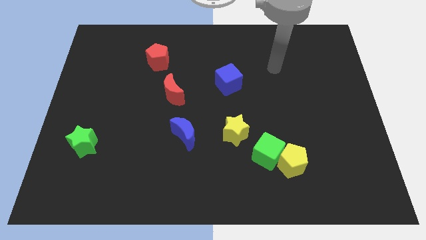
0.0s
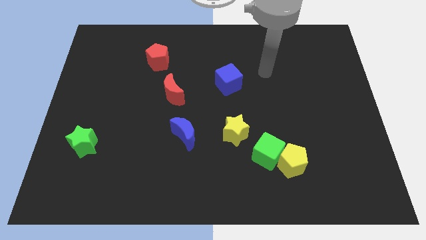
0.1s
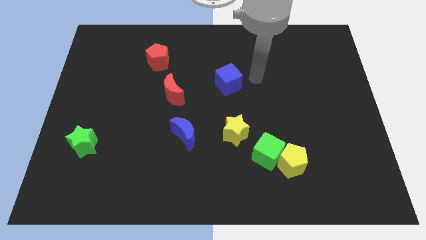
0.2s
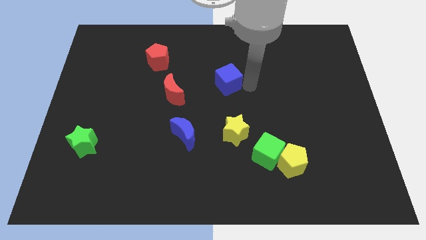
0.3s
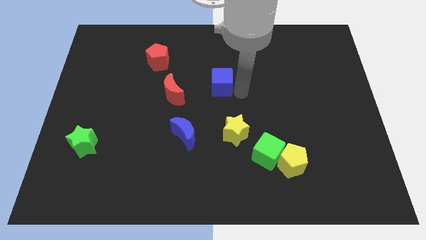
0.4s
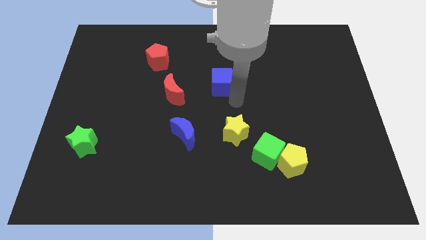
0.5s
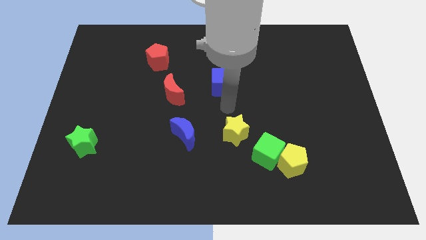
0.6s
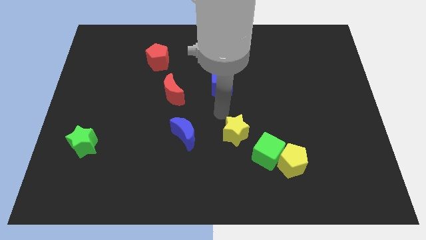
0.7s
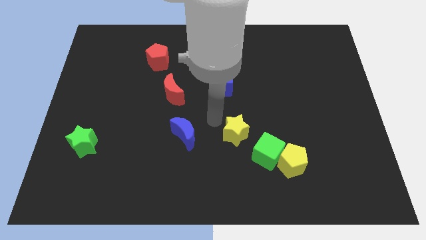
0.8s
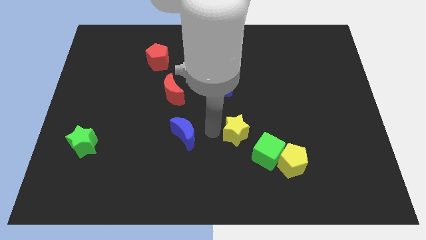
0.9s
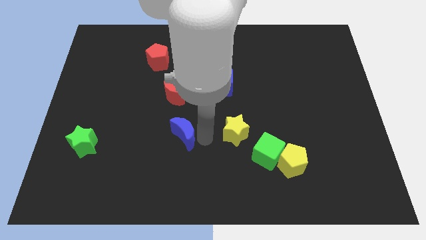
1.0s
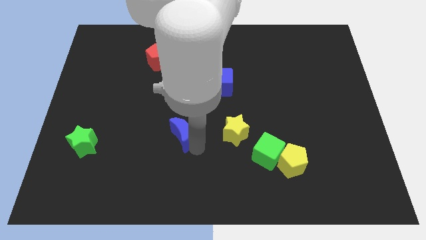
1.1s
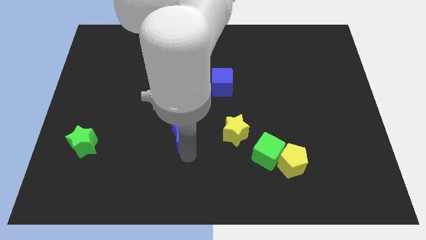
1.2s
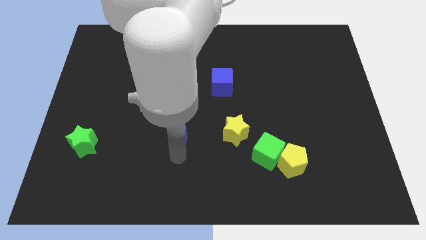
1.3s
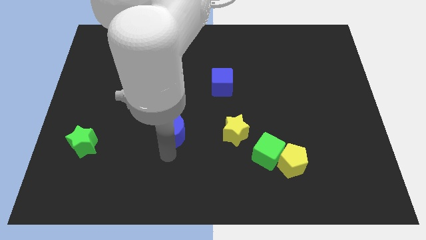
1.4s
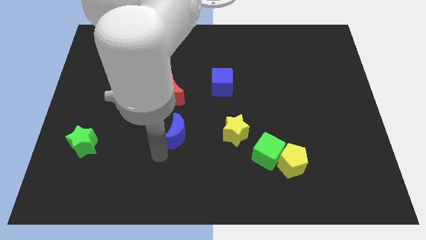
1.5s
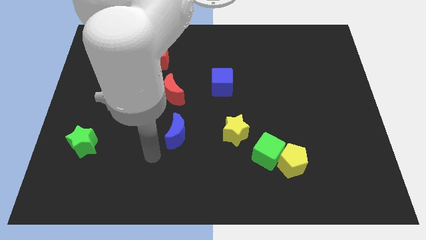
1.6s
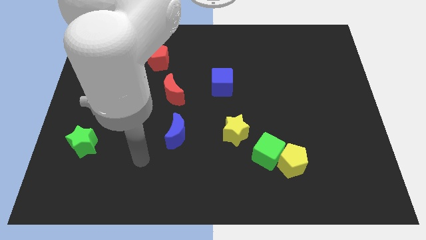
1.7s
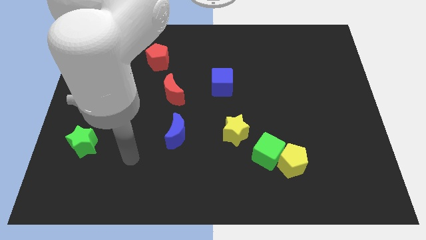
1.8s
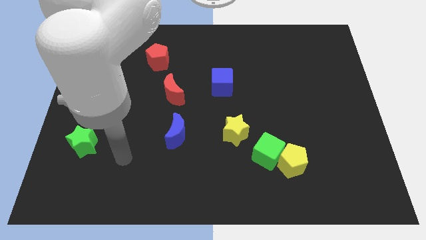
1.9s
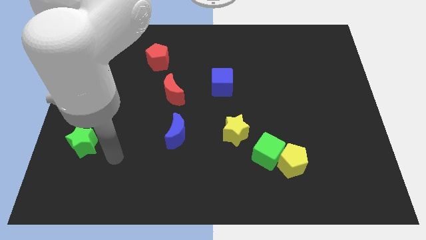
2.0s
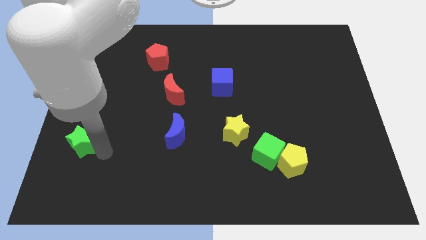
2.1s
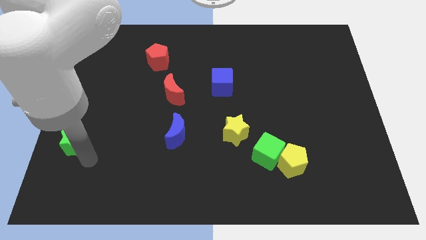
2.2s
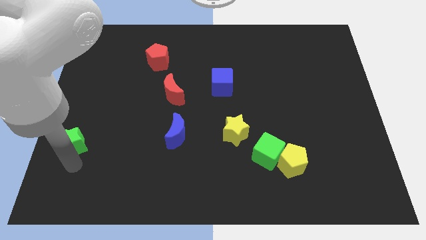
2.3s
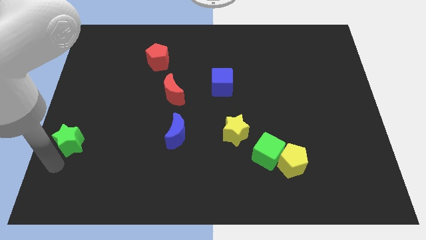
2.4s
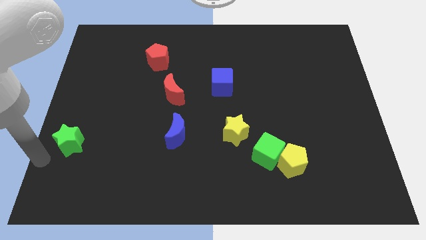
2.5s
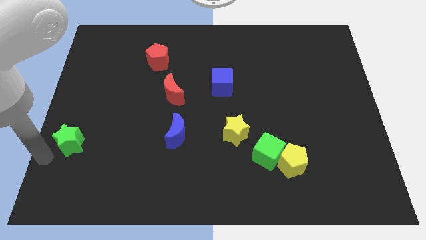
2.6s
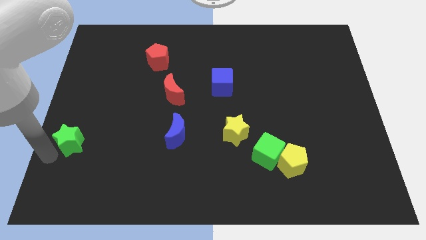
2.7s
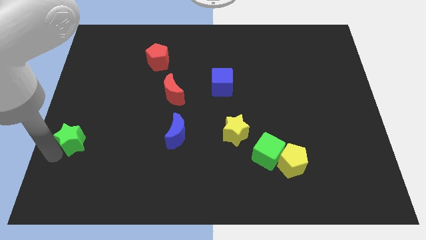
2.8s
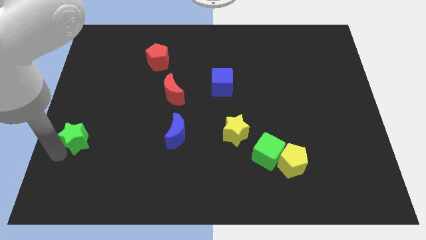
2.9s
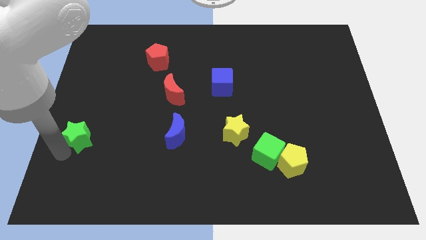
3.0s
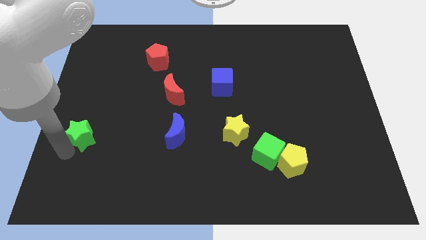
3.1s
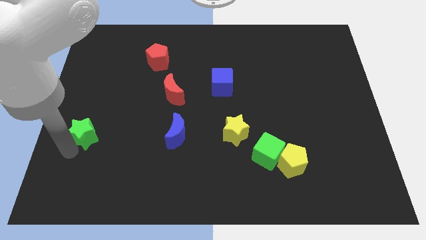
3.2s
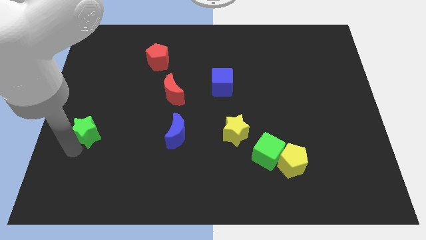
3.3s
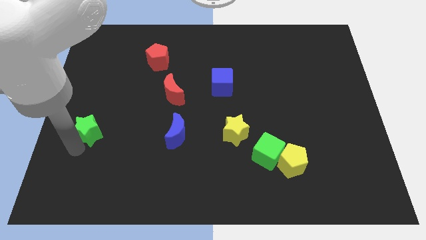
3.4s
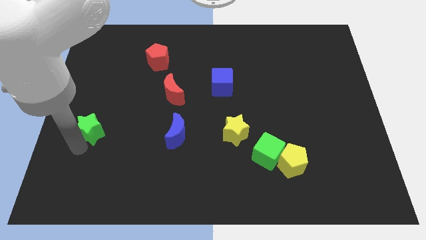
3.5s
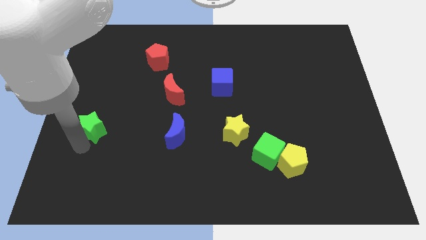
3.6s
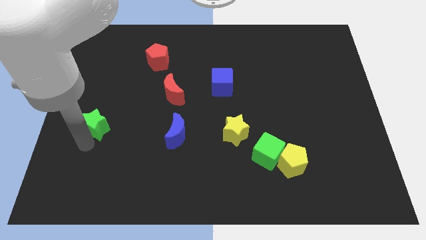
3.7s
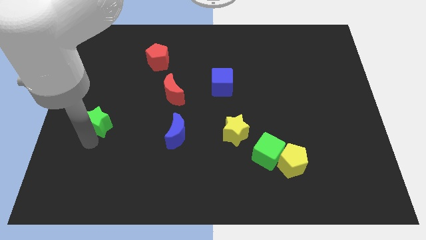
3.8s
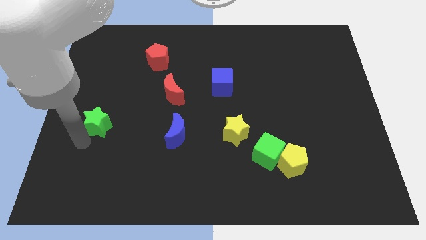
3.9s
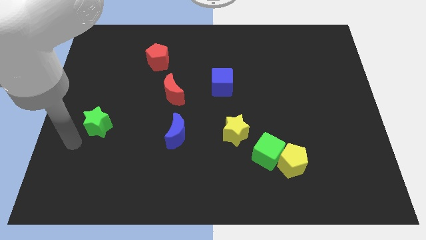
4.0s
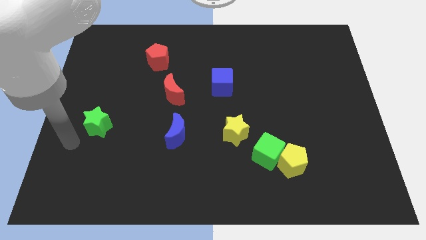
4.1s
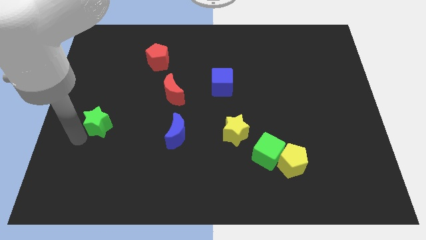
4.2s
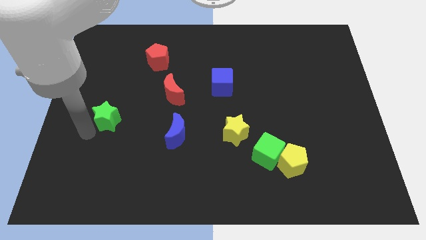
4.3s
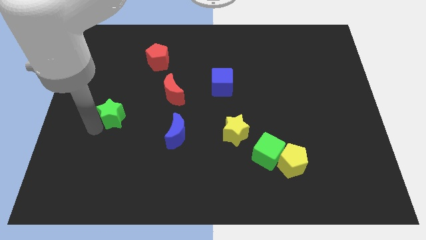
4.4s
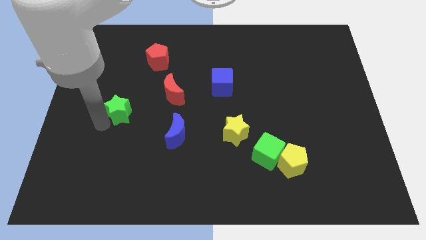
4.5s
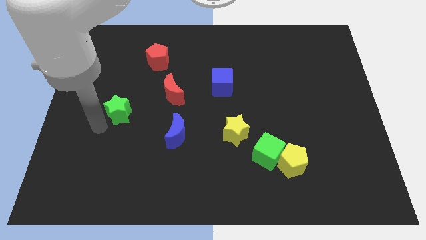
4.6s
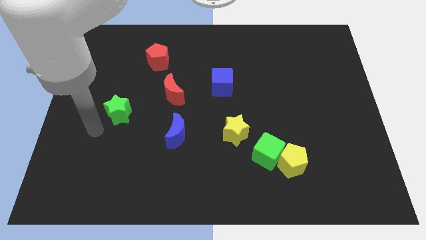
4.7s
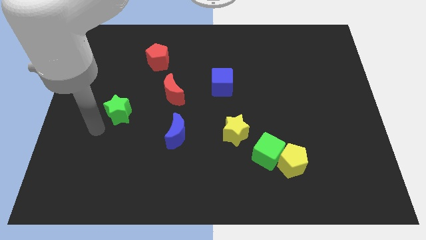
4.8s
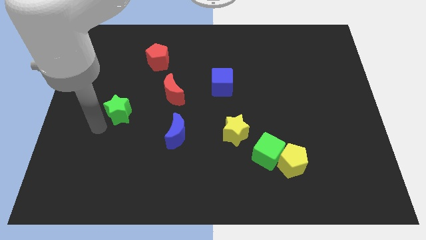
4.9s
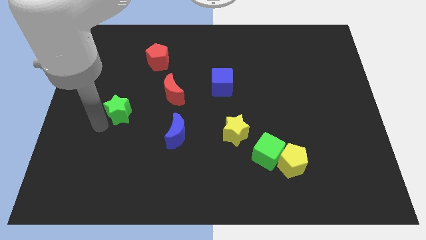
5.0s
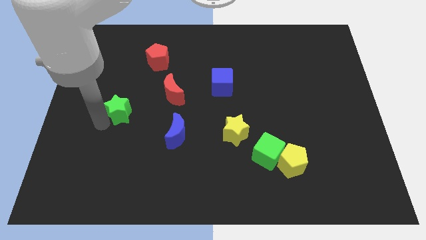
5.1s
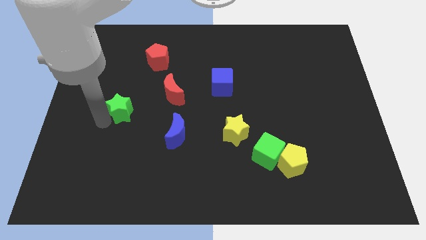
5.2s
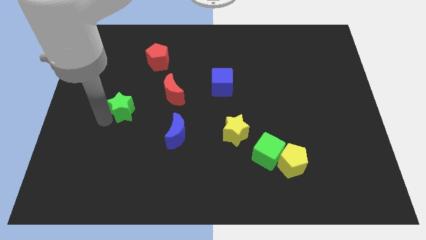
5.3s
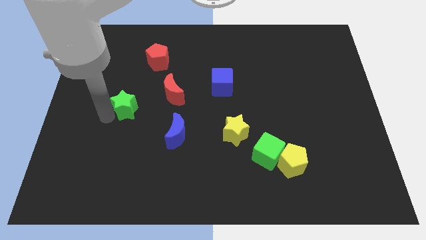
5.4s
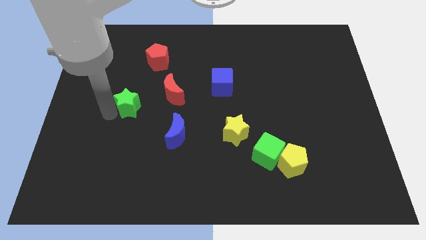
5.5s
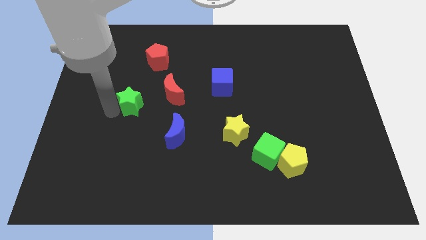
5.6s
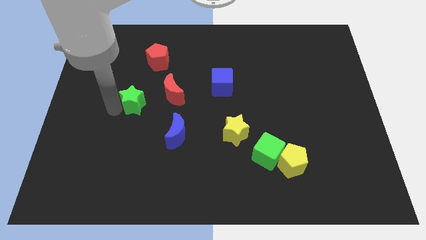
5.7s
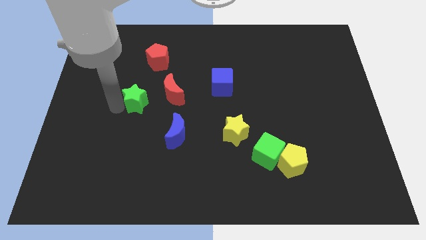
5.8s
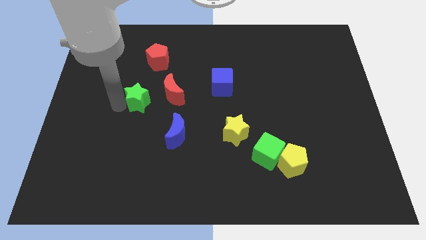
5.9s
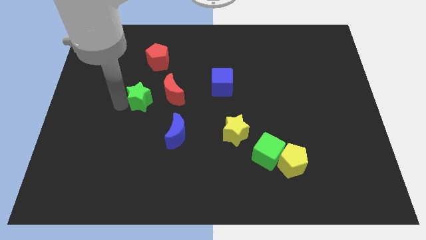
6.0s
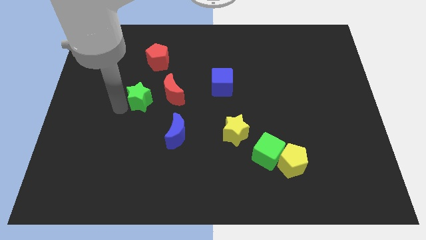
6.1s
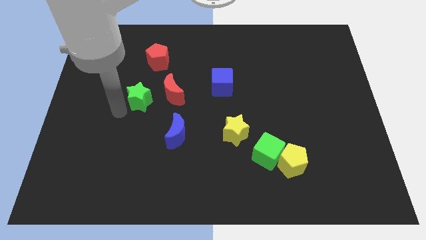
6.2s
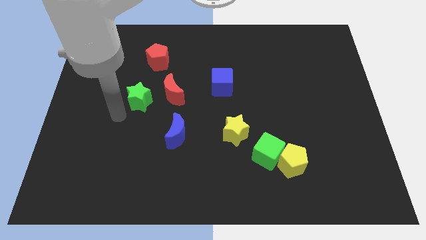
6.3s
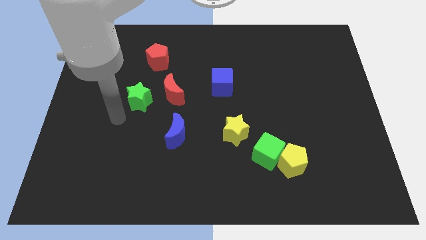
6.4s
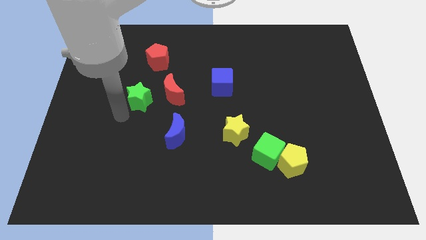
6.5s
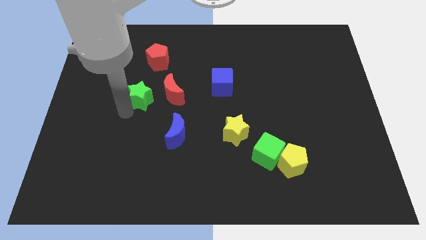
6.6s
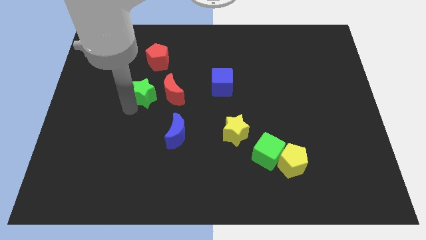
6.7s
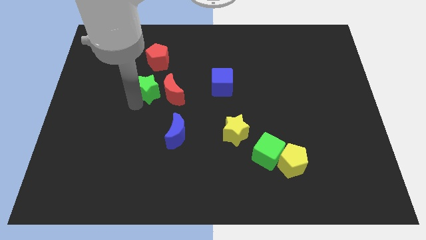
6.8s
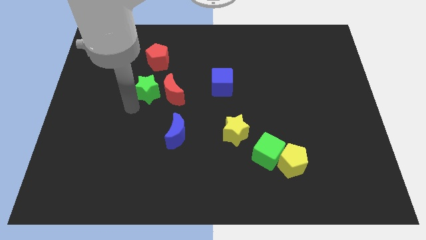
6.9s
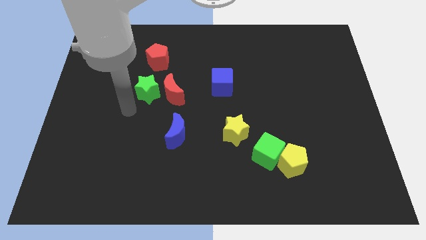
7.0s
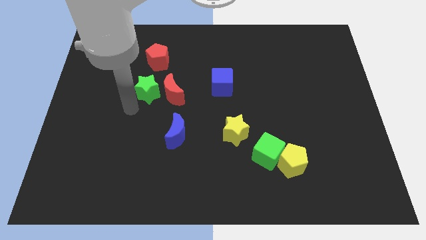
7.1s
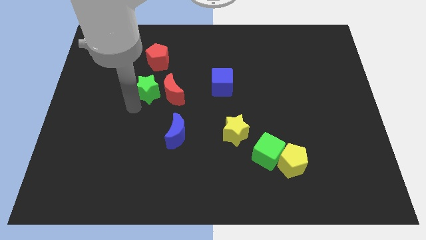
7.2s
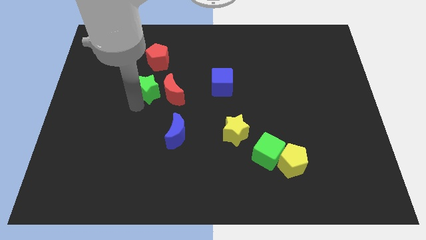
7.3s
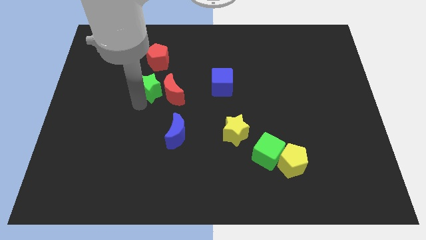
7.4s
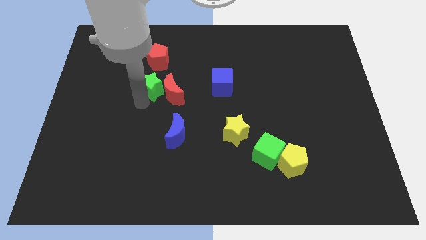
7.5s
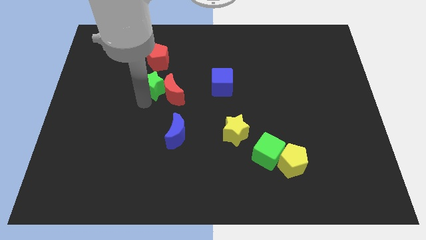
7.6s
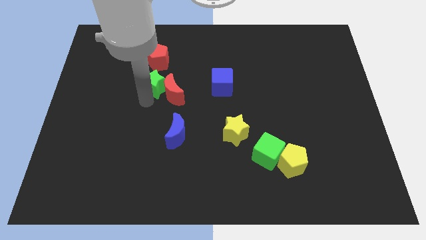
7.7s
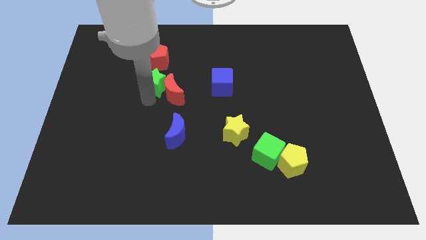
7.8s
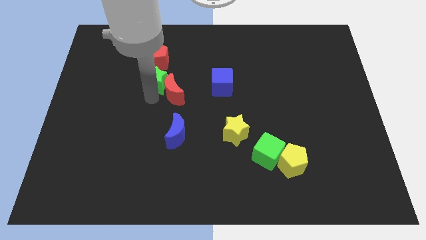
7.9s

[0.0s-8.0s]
slide the green star to the top of the red moon
